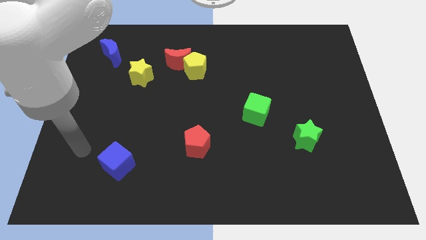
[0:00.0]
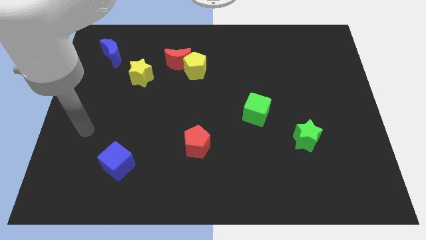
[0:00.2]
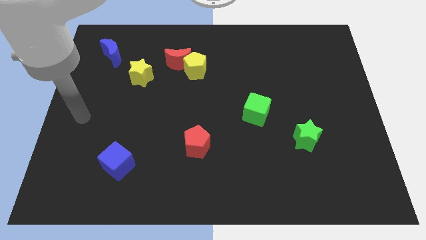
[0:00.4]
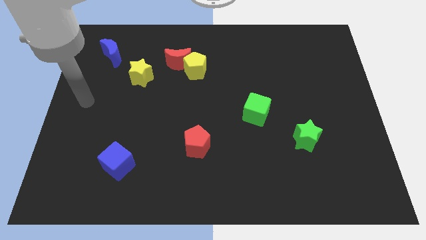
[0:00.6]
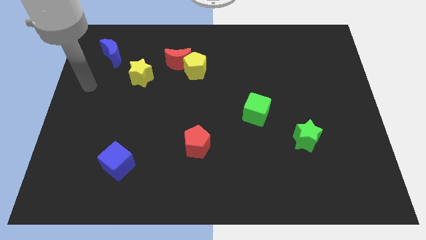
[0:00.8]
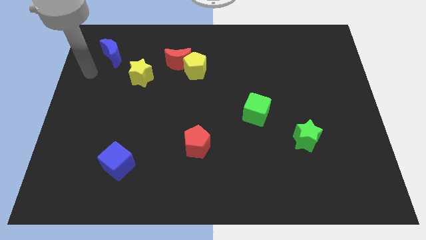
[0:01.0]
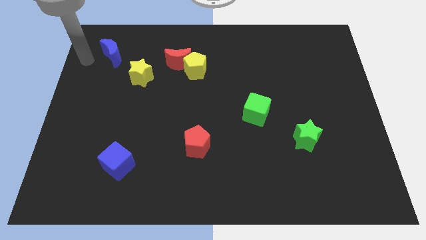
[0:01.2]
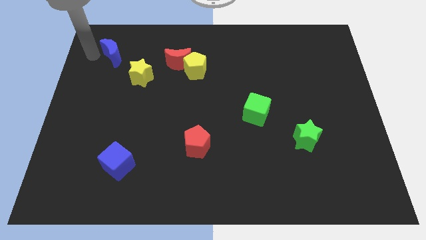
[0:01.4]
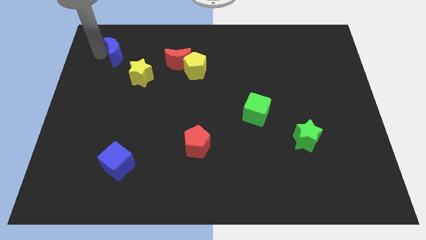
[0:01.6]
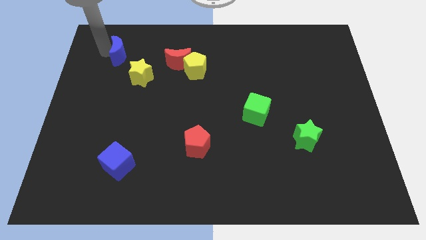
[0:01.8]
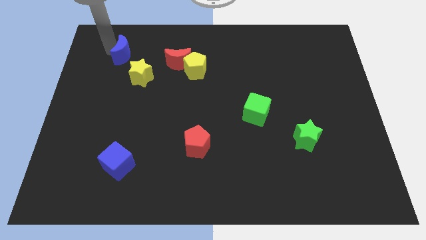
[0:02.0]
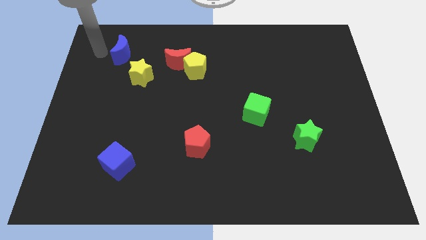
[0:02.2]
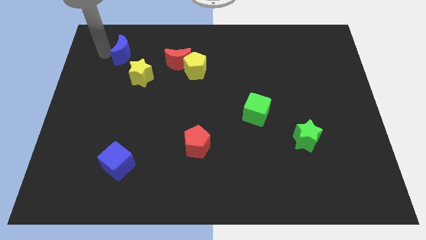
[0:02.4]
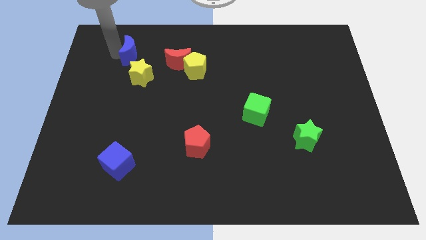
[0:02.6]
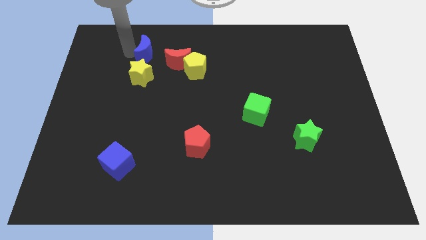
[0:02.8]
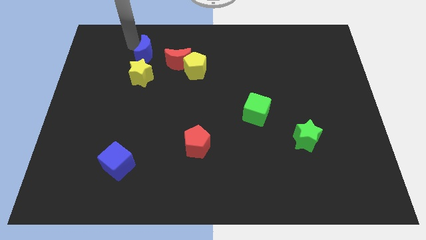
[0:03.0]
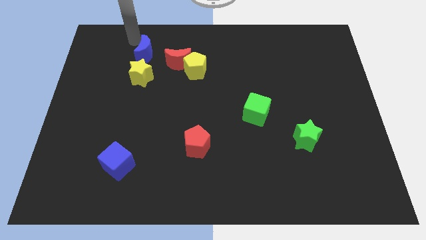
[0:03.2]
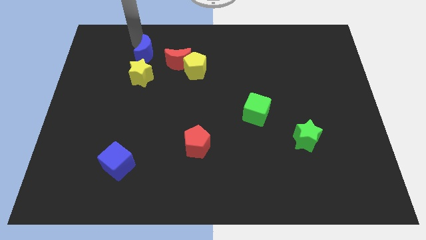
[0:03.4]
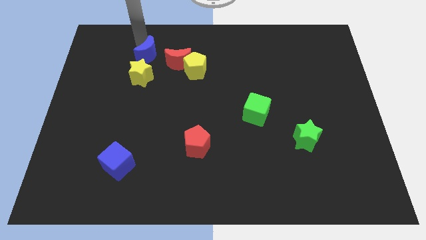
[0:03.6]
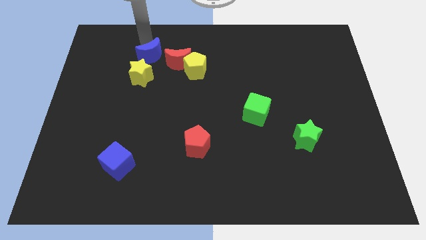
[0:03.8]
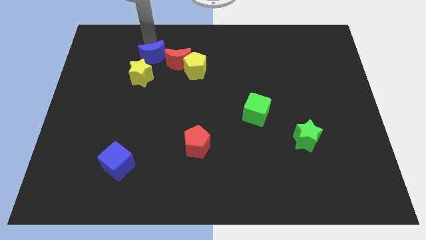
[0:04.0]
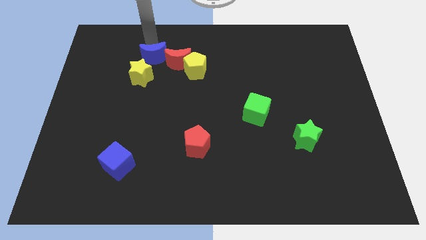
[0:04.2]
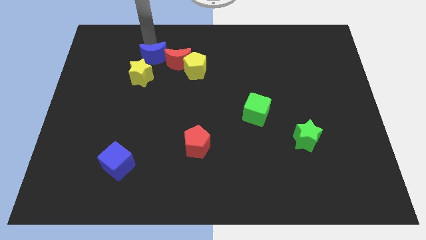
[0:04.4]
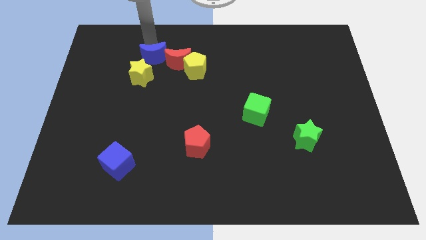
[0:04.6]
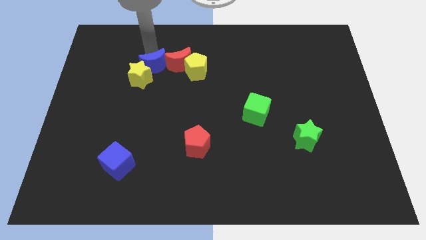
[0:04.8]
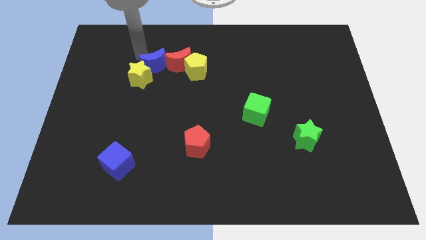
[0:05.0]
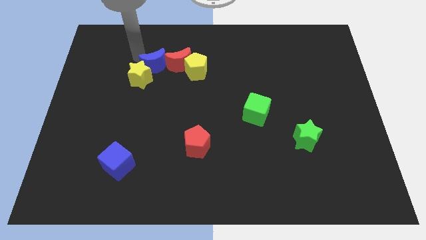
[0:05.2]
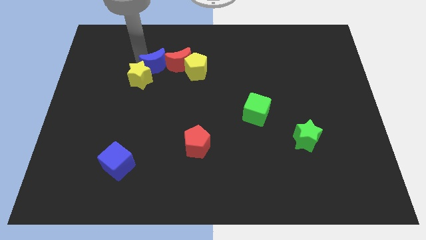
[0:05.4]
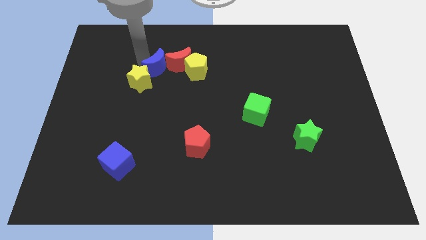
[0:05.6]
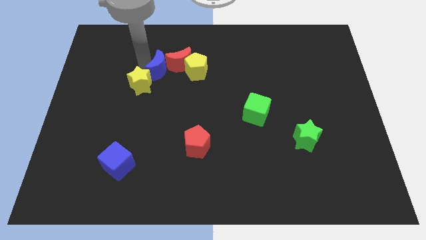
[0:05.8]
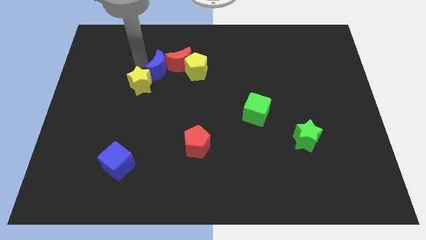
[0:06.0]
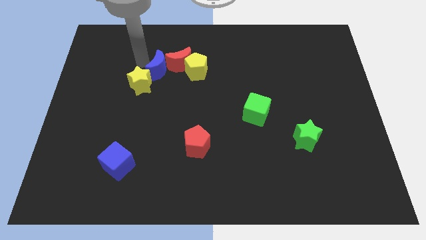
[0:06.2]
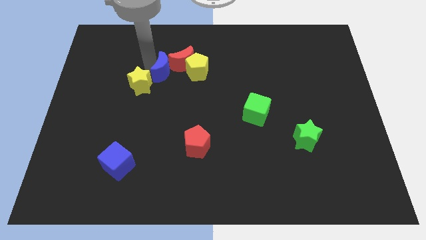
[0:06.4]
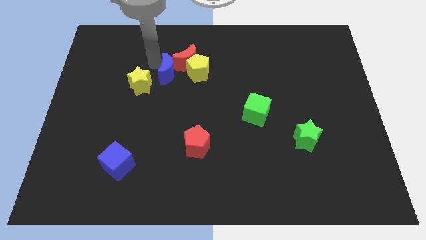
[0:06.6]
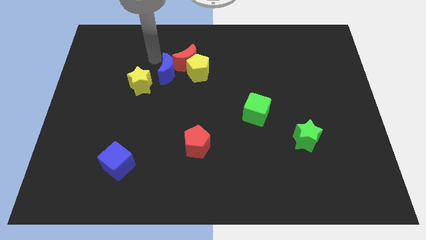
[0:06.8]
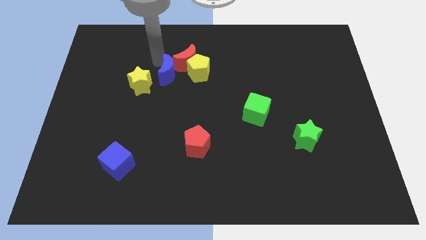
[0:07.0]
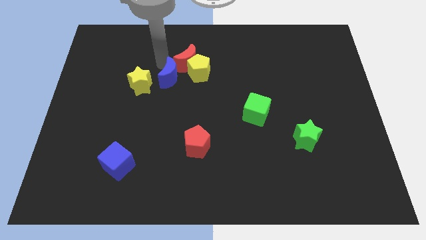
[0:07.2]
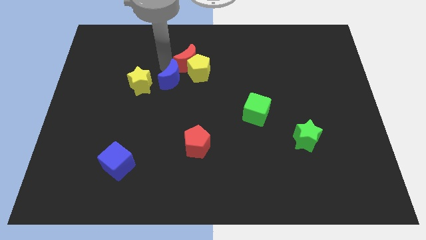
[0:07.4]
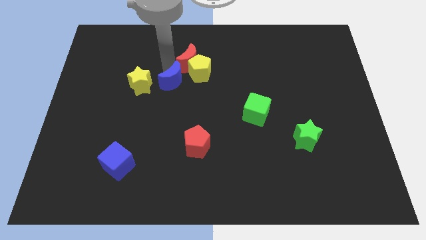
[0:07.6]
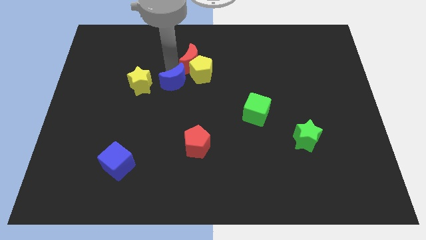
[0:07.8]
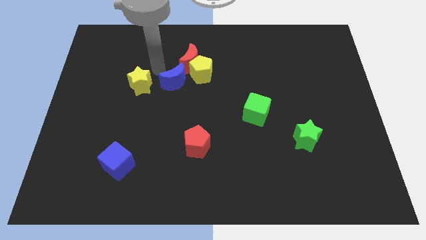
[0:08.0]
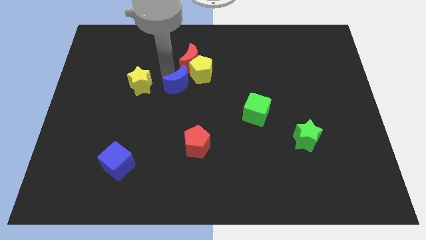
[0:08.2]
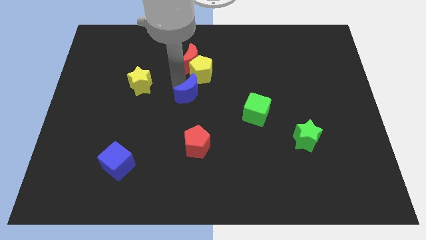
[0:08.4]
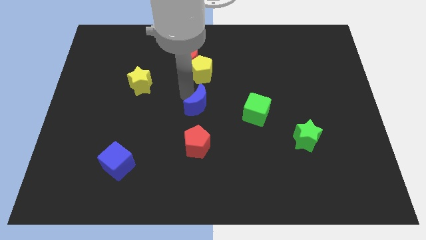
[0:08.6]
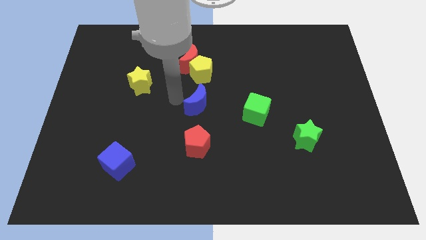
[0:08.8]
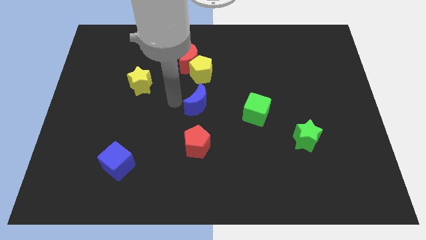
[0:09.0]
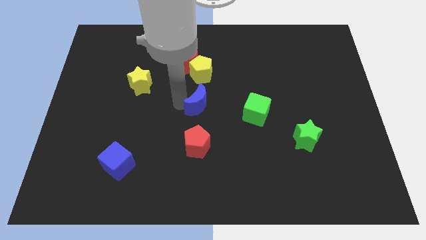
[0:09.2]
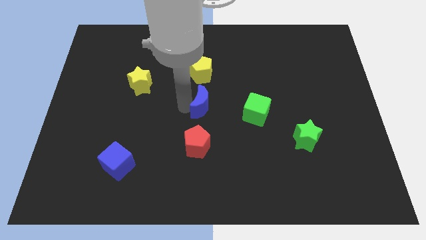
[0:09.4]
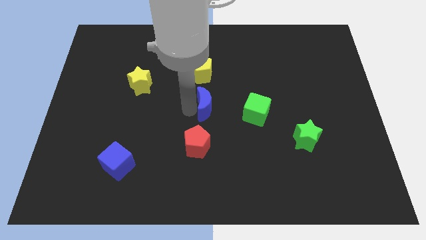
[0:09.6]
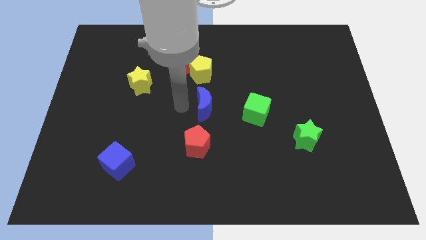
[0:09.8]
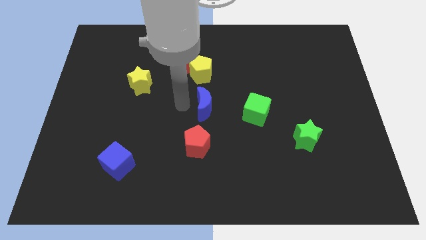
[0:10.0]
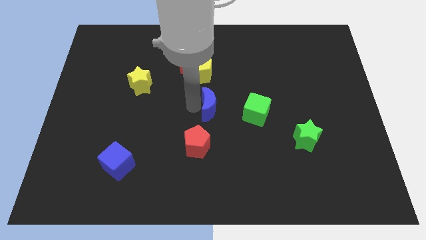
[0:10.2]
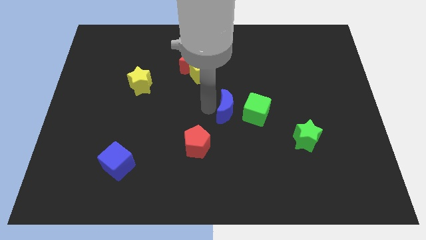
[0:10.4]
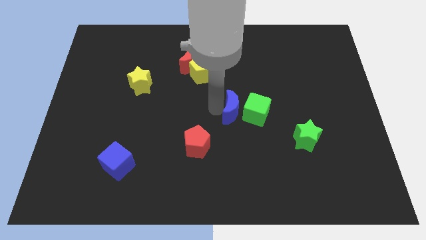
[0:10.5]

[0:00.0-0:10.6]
slide the blue moon close to the green cube

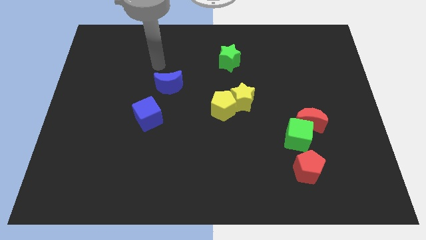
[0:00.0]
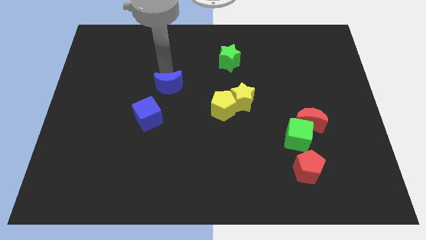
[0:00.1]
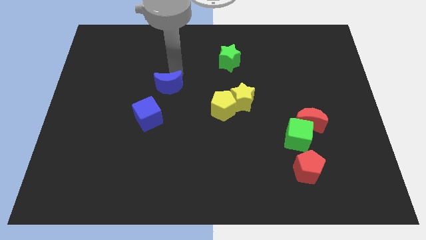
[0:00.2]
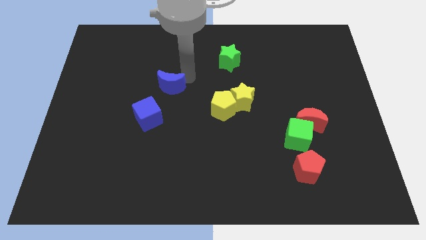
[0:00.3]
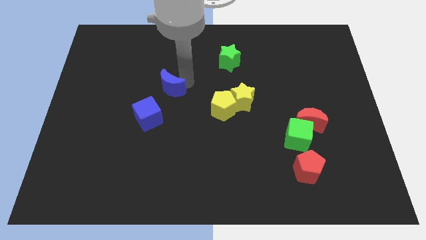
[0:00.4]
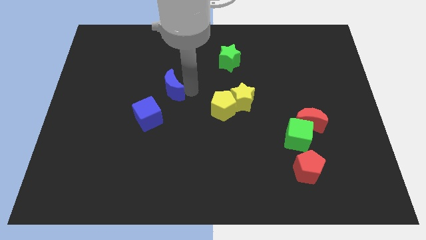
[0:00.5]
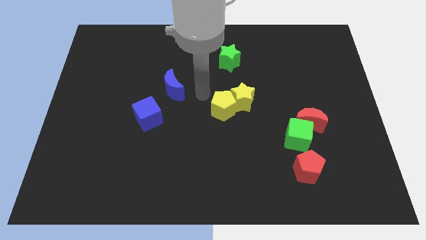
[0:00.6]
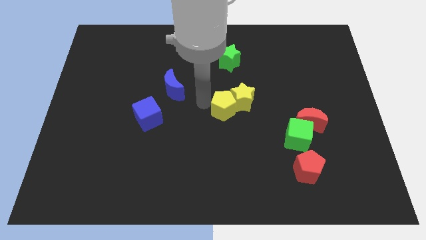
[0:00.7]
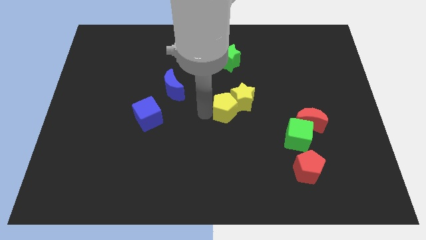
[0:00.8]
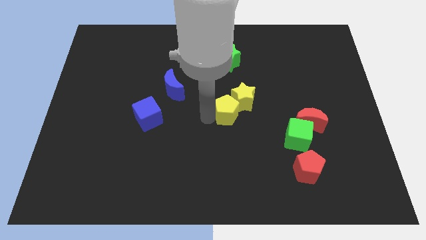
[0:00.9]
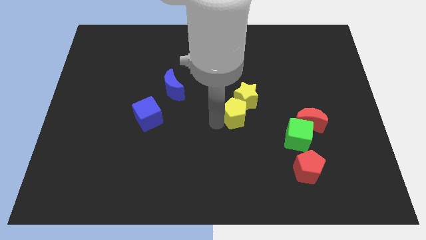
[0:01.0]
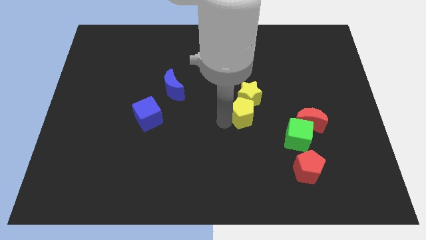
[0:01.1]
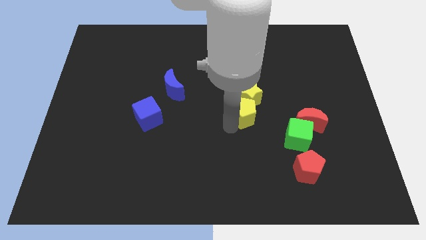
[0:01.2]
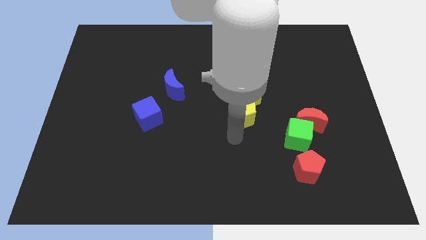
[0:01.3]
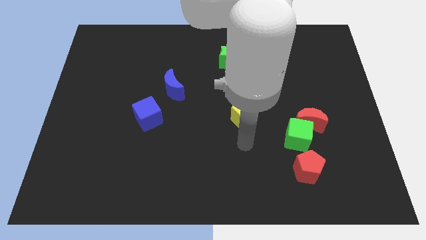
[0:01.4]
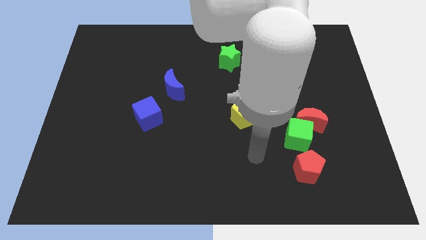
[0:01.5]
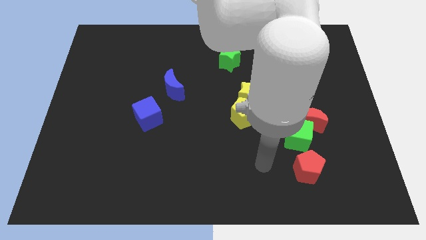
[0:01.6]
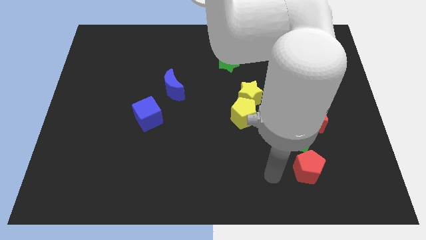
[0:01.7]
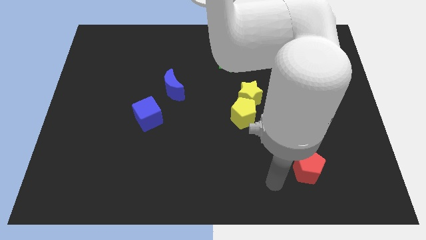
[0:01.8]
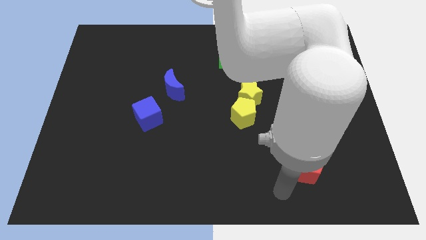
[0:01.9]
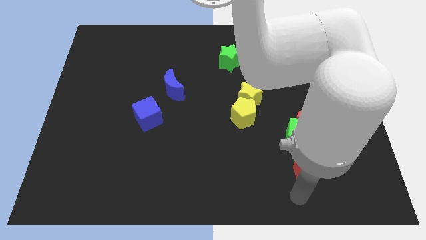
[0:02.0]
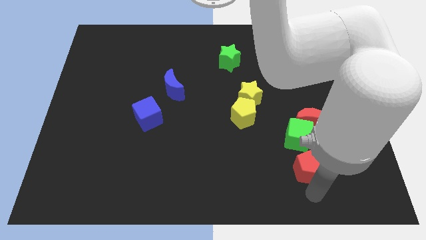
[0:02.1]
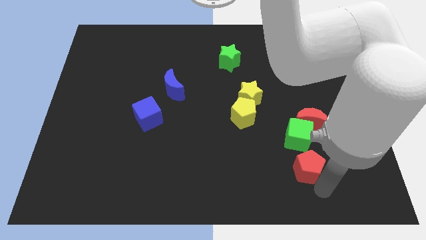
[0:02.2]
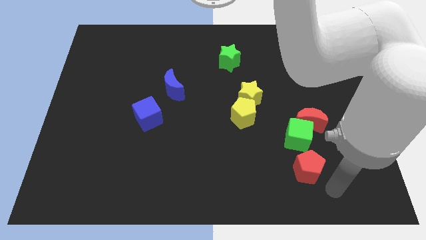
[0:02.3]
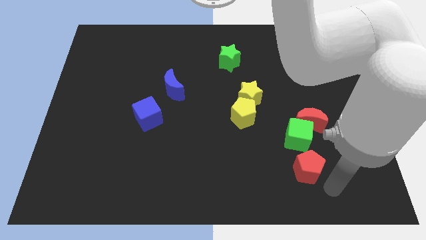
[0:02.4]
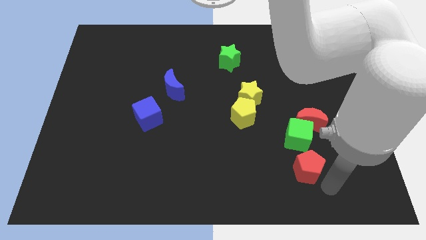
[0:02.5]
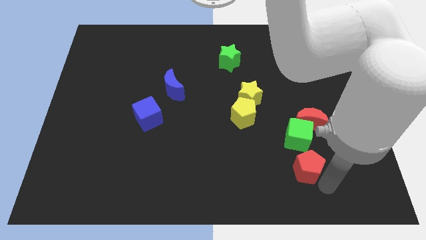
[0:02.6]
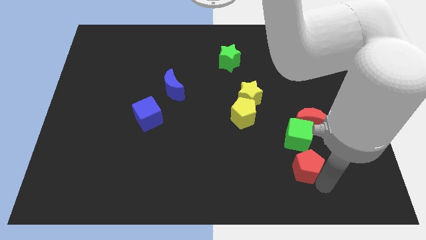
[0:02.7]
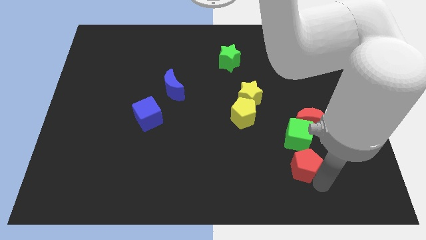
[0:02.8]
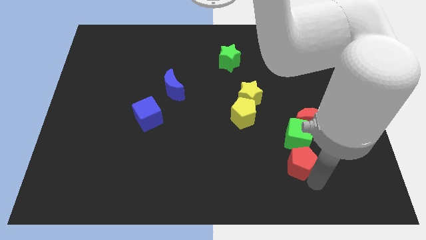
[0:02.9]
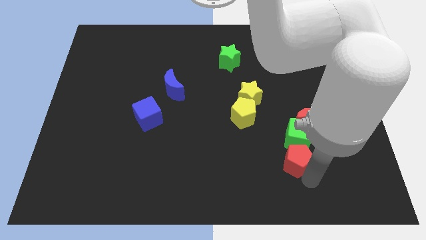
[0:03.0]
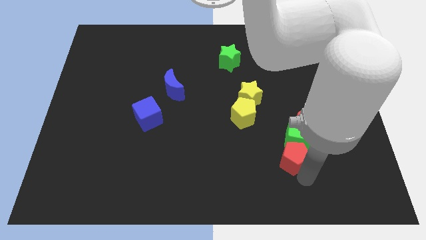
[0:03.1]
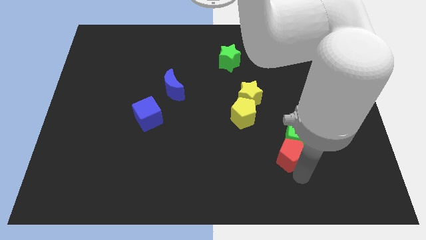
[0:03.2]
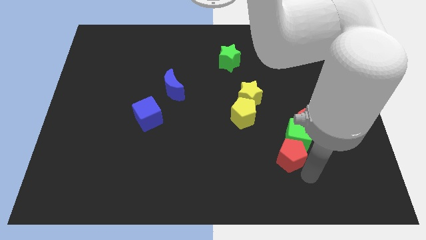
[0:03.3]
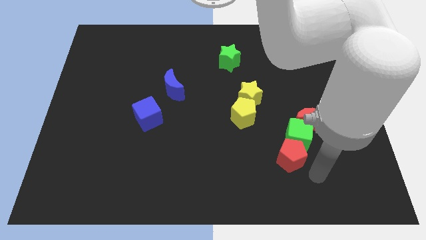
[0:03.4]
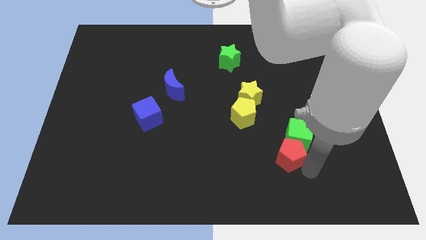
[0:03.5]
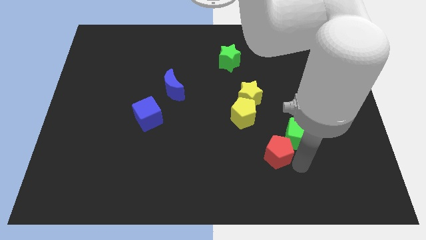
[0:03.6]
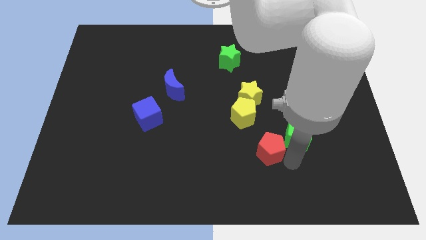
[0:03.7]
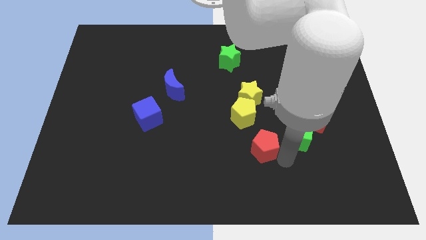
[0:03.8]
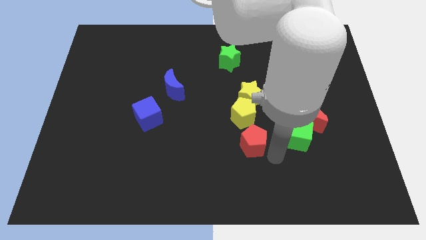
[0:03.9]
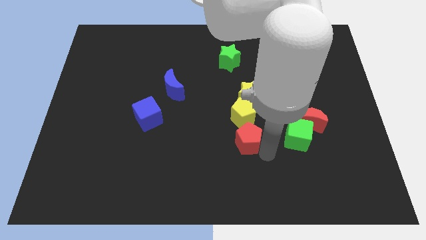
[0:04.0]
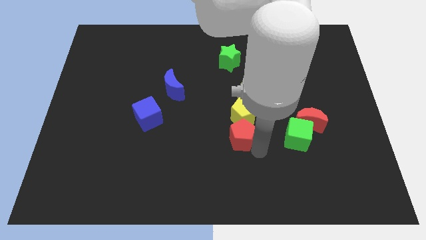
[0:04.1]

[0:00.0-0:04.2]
push the red pentagon towards the yellow pentagon
